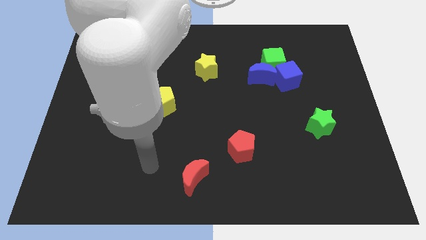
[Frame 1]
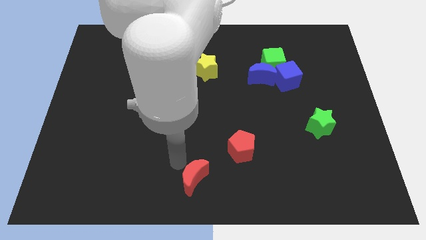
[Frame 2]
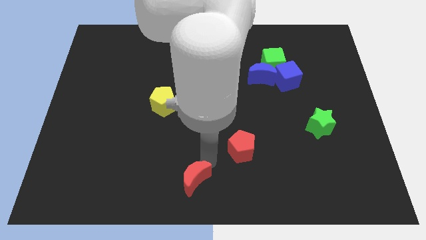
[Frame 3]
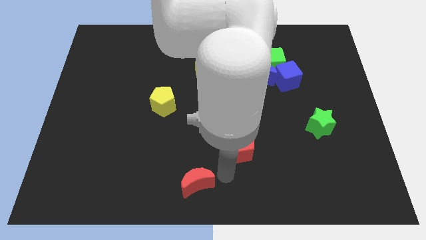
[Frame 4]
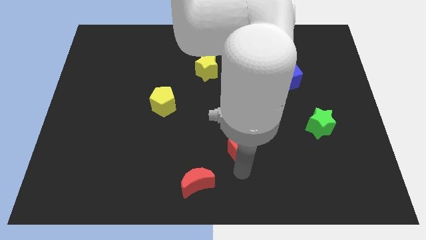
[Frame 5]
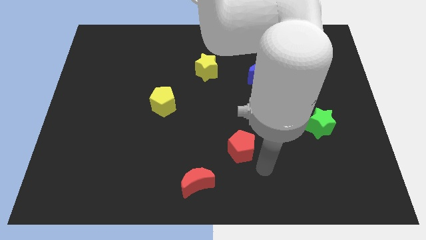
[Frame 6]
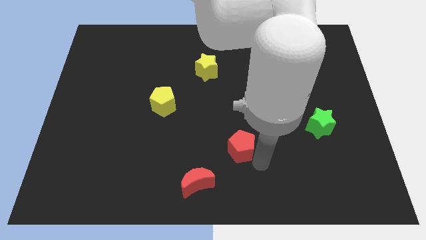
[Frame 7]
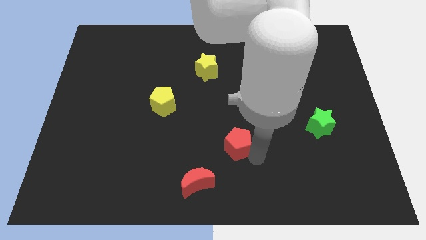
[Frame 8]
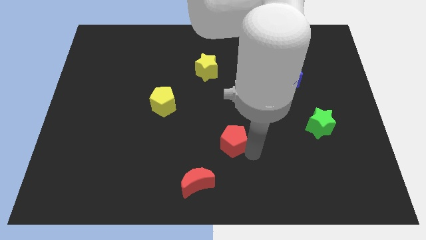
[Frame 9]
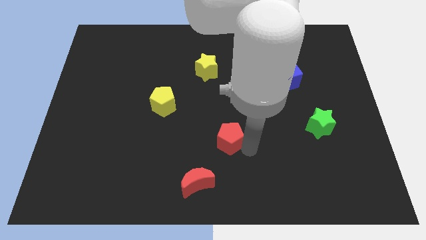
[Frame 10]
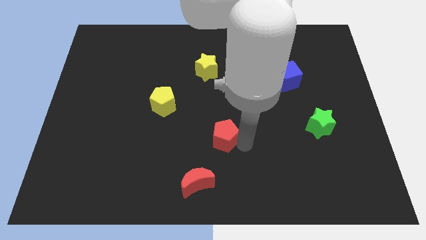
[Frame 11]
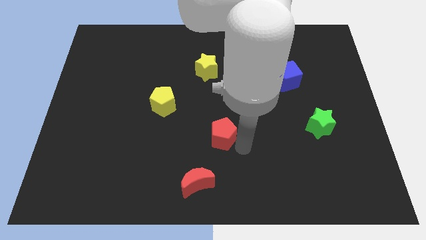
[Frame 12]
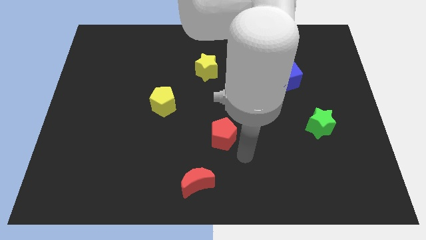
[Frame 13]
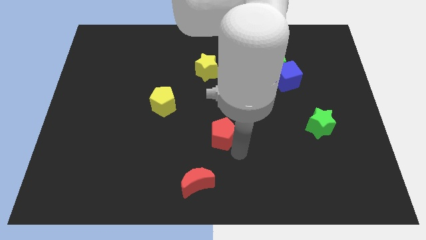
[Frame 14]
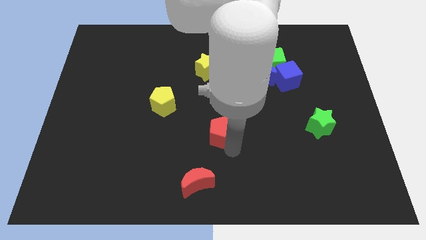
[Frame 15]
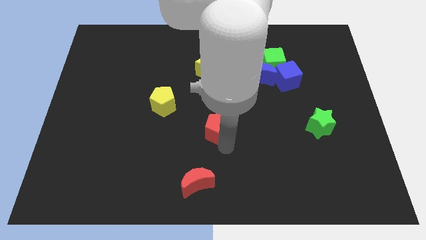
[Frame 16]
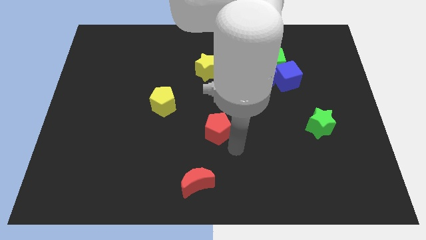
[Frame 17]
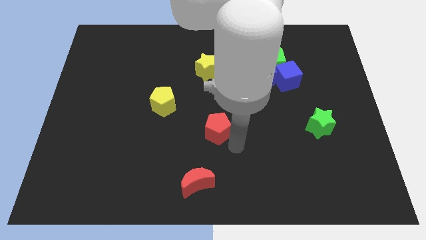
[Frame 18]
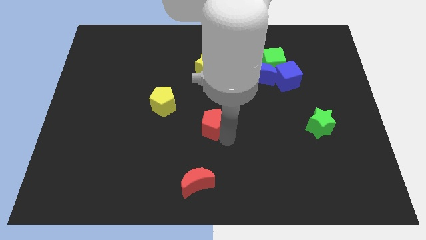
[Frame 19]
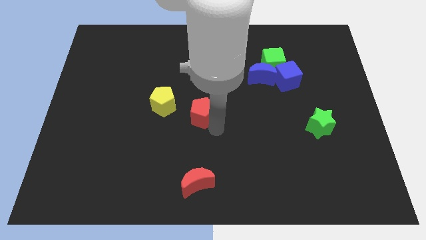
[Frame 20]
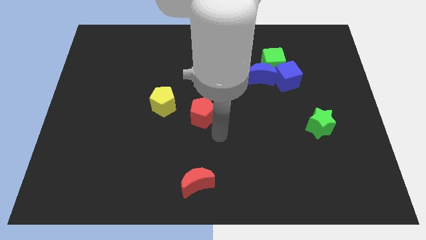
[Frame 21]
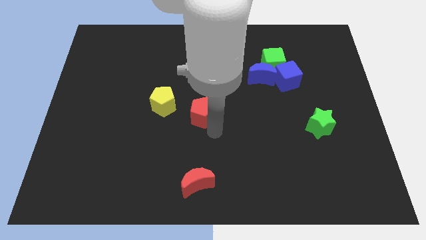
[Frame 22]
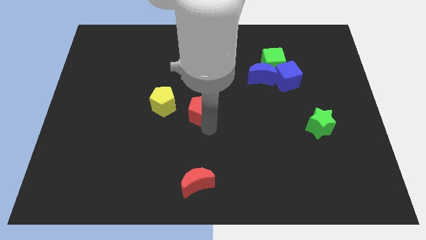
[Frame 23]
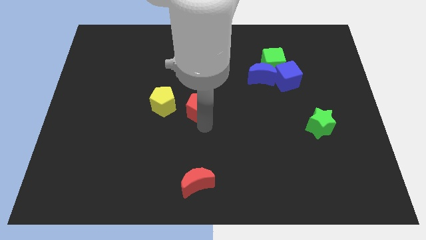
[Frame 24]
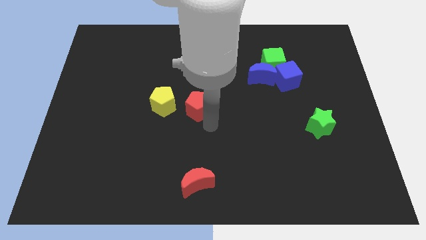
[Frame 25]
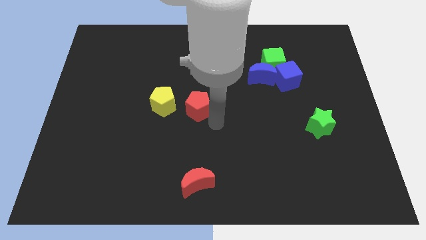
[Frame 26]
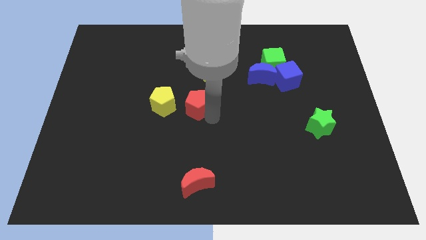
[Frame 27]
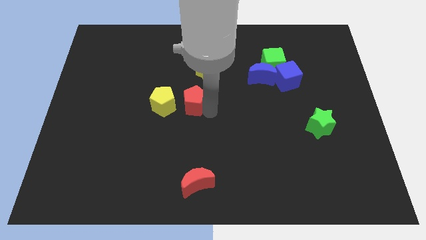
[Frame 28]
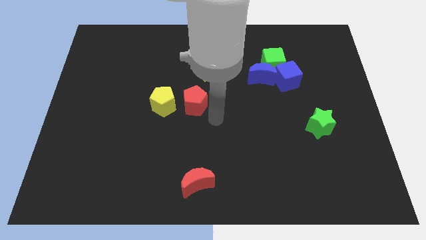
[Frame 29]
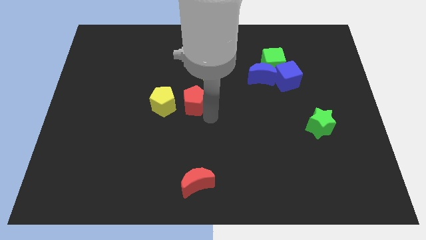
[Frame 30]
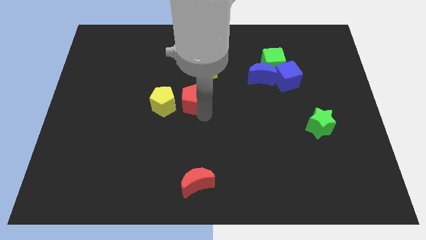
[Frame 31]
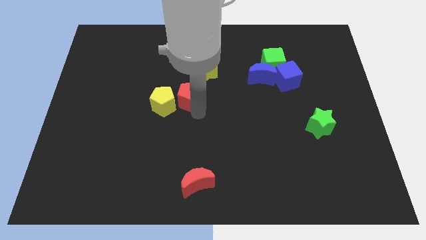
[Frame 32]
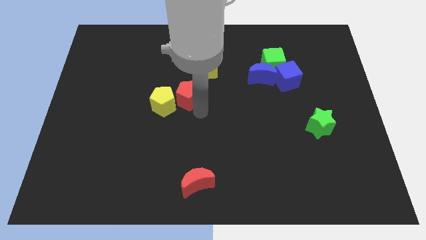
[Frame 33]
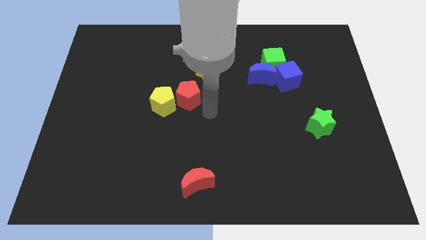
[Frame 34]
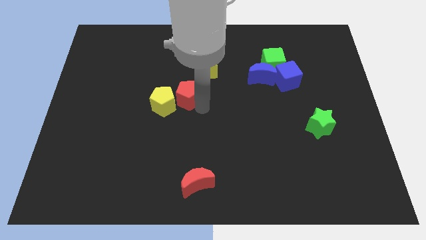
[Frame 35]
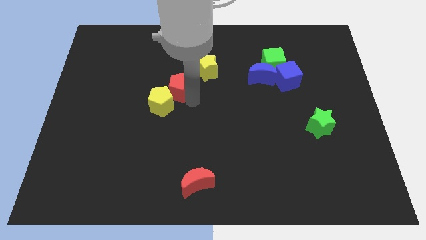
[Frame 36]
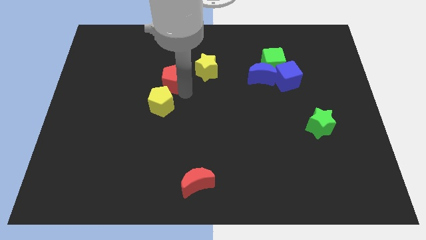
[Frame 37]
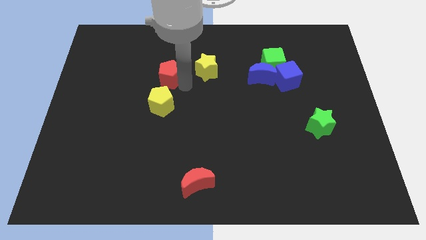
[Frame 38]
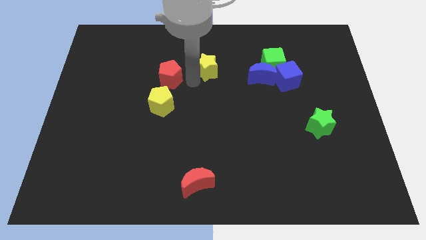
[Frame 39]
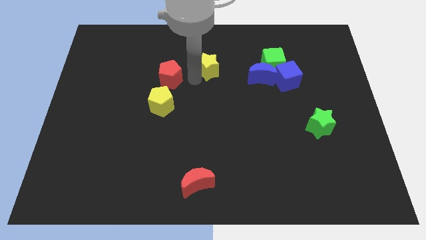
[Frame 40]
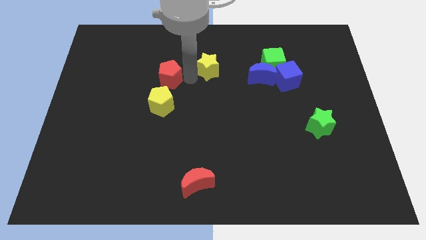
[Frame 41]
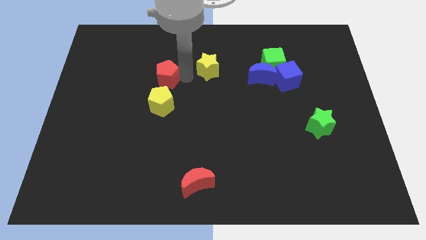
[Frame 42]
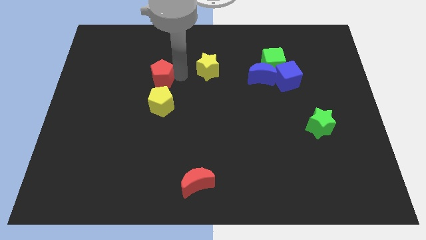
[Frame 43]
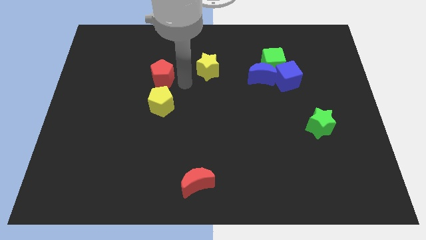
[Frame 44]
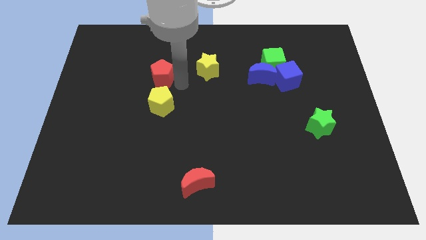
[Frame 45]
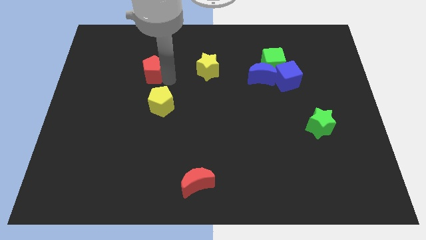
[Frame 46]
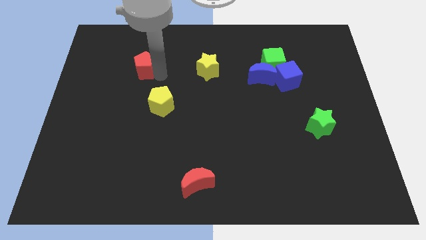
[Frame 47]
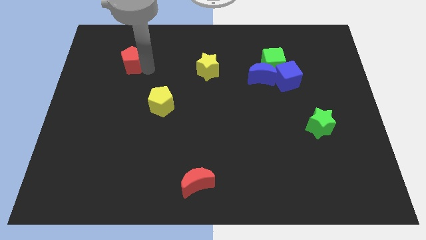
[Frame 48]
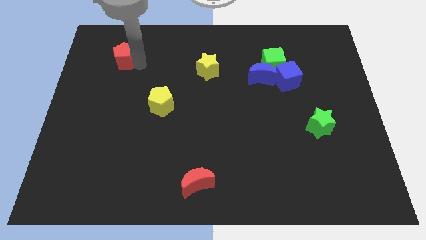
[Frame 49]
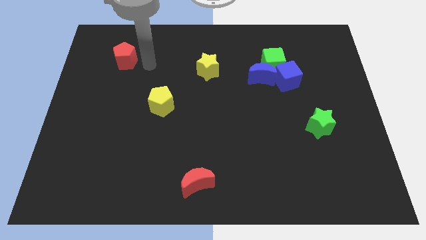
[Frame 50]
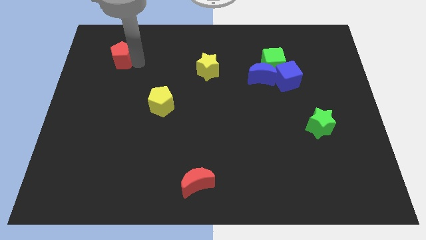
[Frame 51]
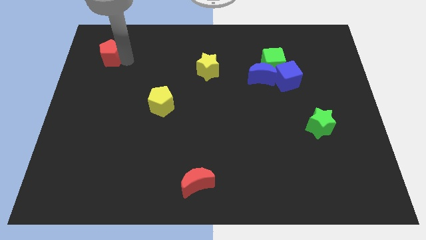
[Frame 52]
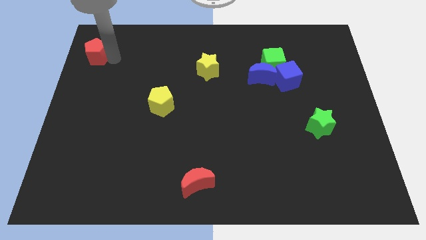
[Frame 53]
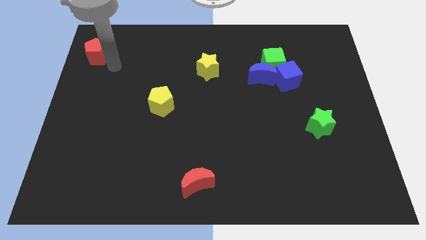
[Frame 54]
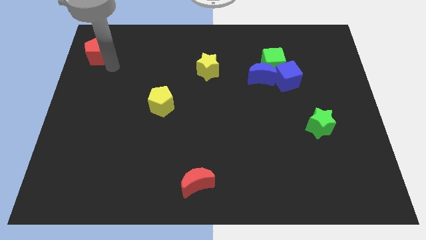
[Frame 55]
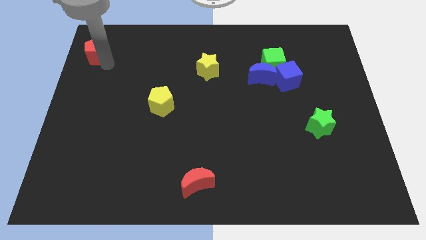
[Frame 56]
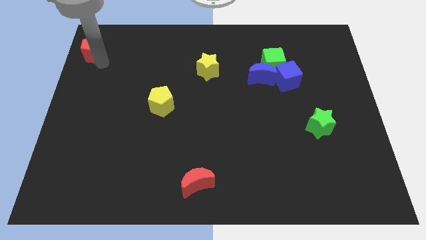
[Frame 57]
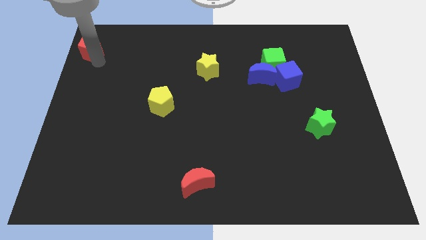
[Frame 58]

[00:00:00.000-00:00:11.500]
move the red pentagon to the top left of the board

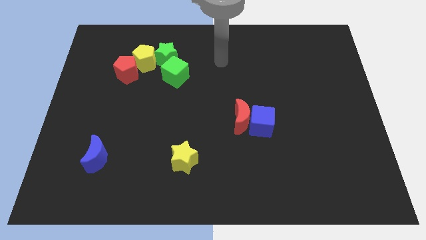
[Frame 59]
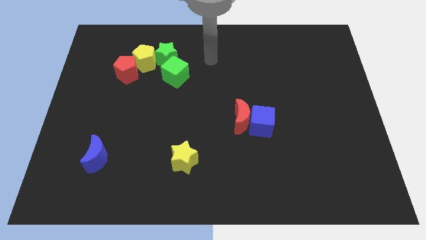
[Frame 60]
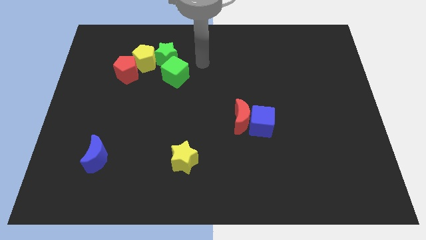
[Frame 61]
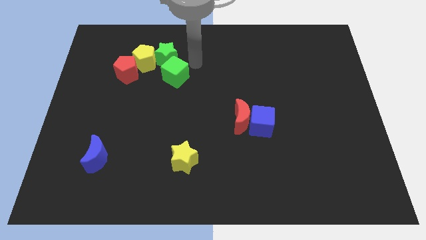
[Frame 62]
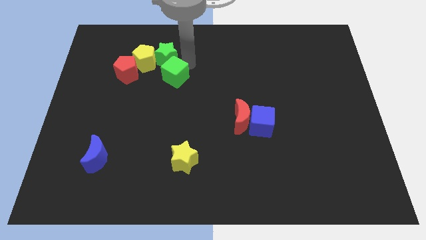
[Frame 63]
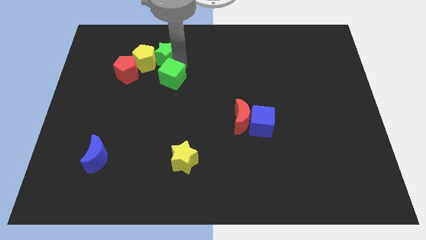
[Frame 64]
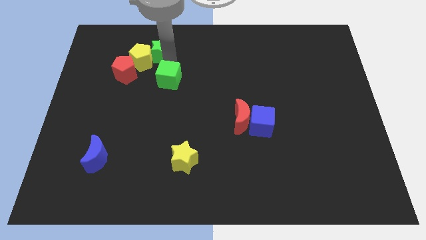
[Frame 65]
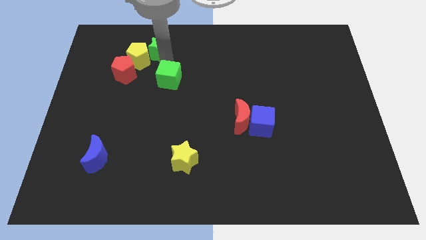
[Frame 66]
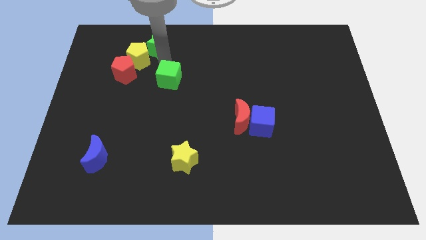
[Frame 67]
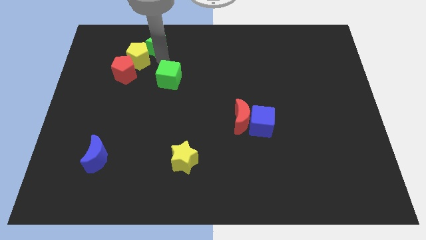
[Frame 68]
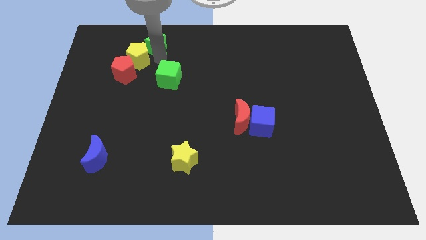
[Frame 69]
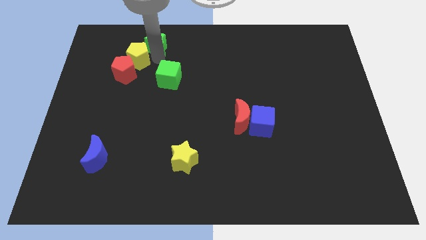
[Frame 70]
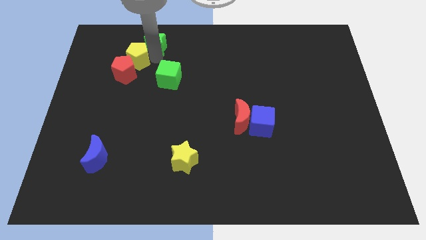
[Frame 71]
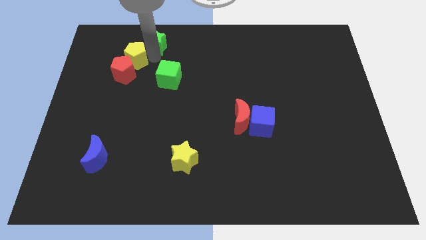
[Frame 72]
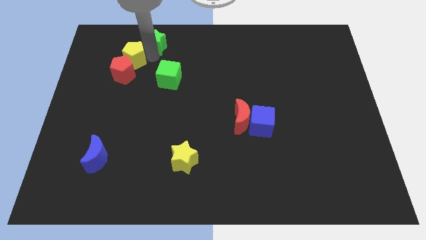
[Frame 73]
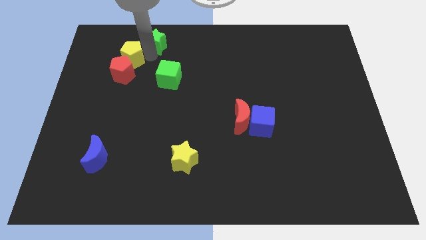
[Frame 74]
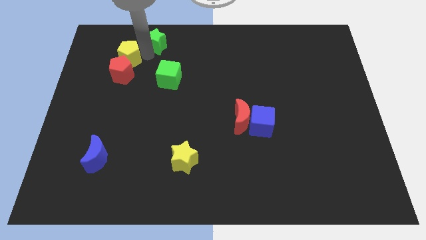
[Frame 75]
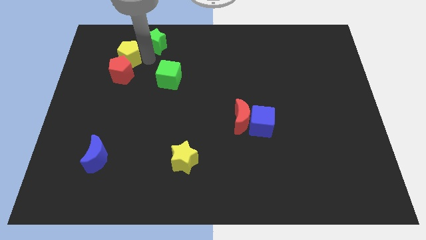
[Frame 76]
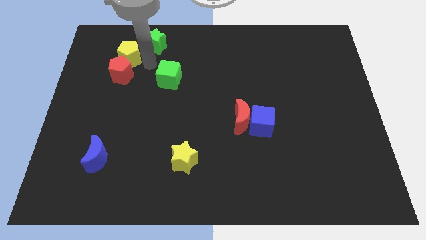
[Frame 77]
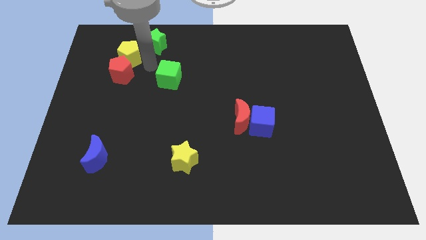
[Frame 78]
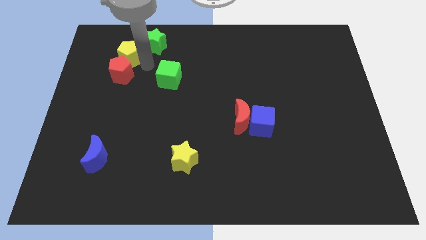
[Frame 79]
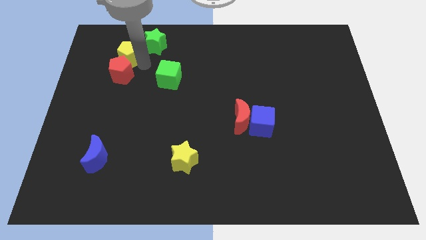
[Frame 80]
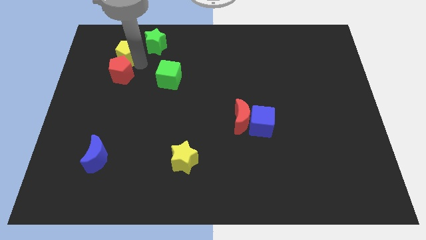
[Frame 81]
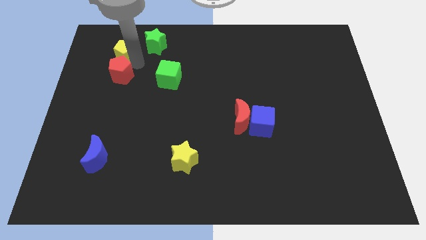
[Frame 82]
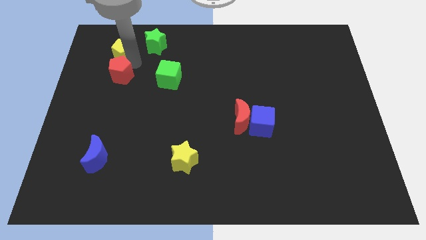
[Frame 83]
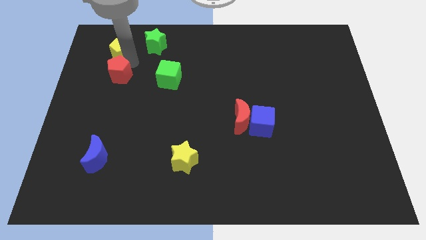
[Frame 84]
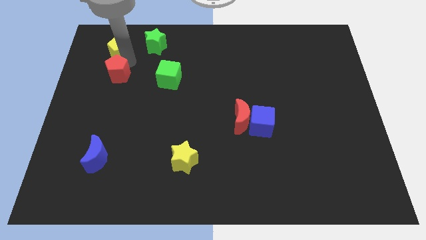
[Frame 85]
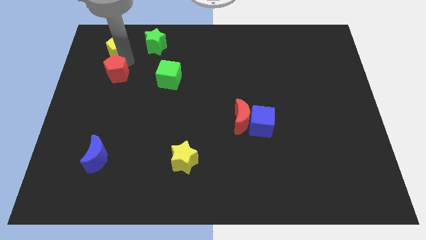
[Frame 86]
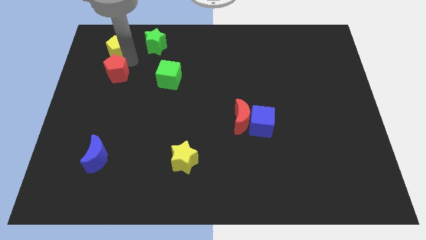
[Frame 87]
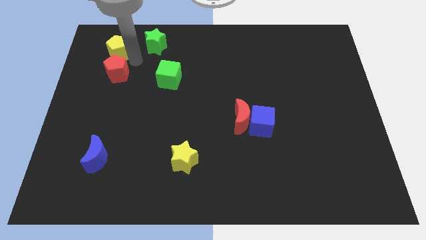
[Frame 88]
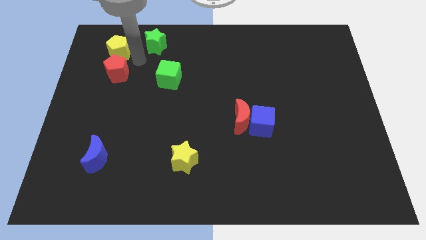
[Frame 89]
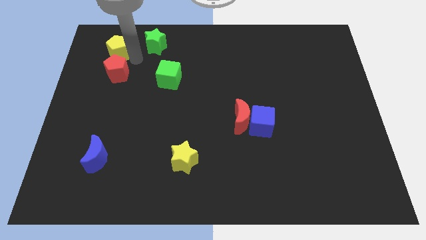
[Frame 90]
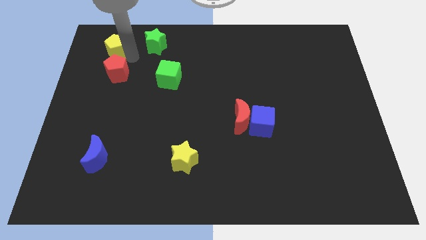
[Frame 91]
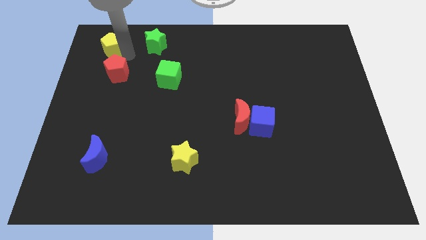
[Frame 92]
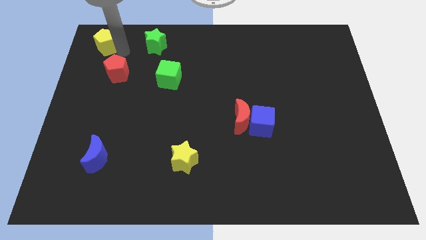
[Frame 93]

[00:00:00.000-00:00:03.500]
slide the yellow pentagon to the top left of the board
